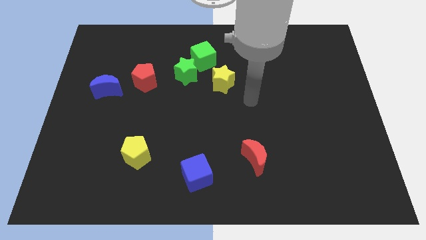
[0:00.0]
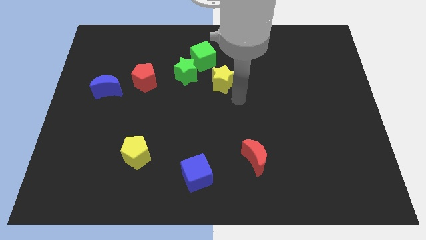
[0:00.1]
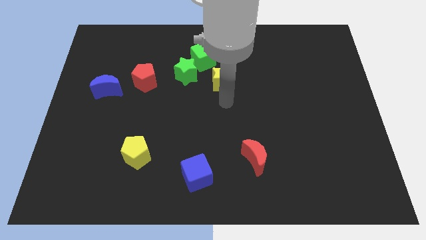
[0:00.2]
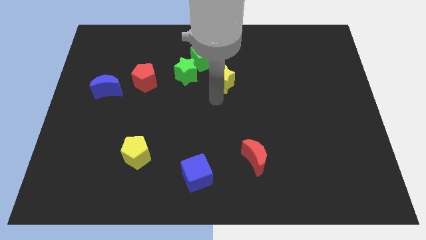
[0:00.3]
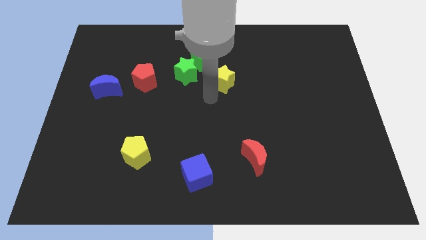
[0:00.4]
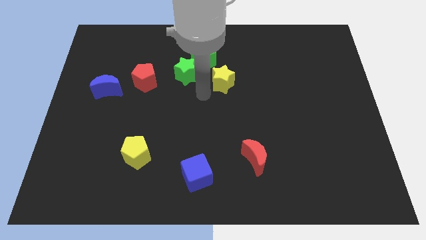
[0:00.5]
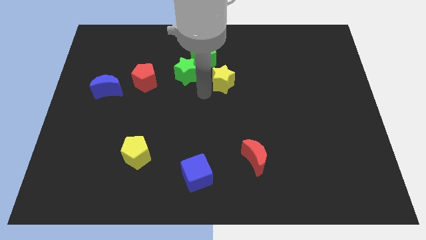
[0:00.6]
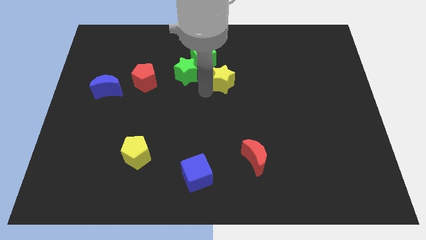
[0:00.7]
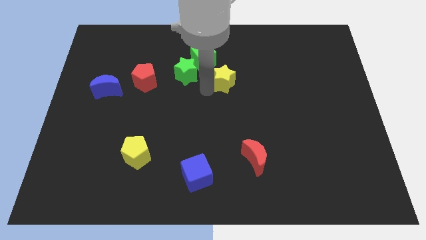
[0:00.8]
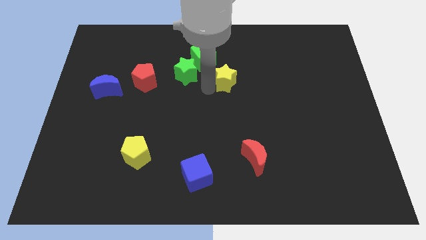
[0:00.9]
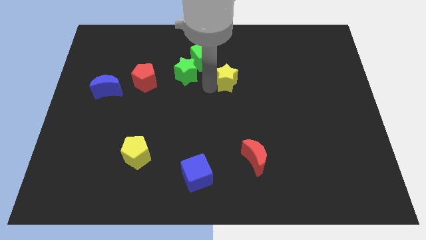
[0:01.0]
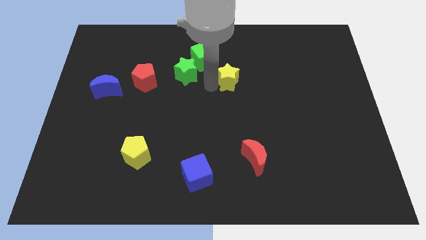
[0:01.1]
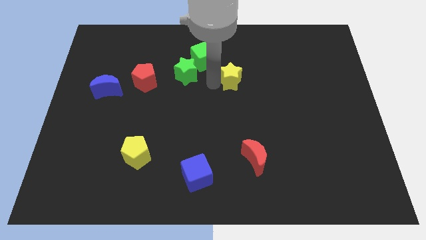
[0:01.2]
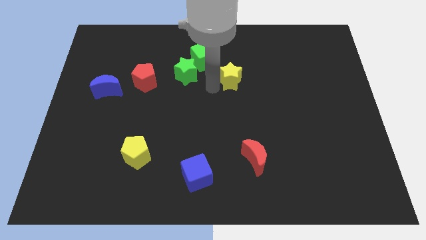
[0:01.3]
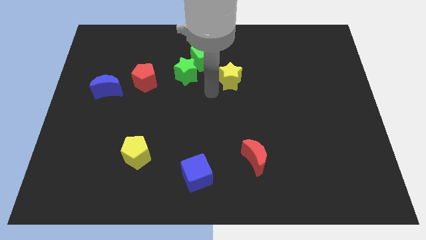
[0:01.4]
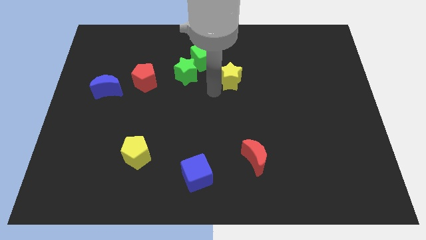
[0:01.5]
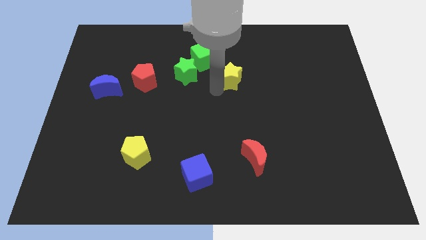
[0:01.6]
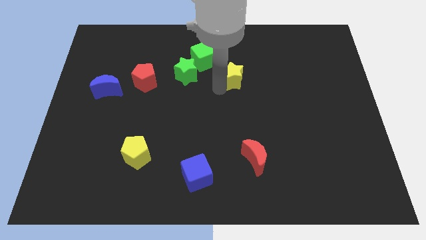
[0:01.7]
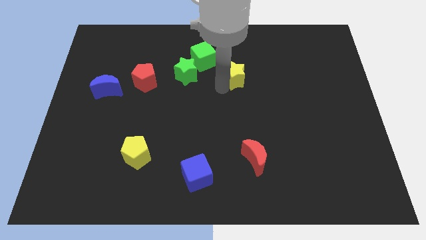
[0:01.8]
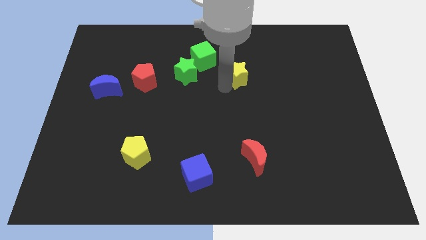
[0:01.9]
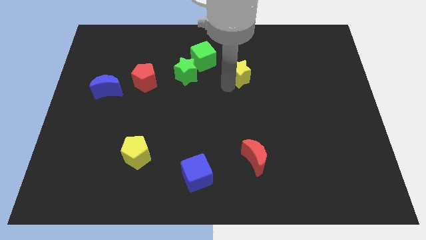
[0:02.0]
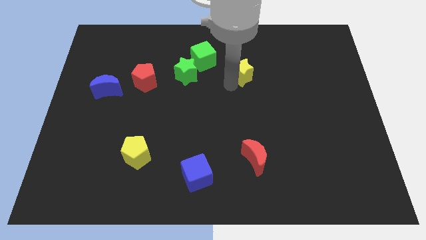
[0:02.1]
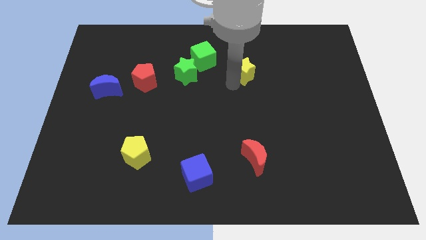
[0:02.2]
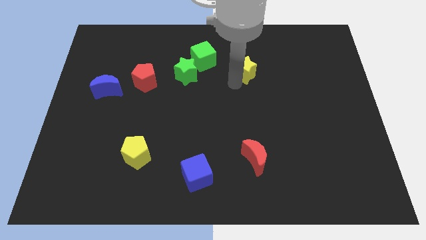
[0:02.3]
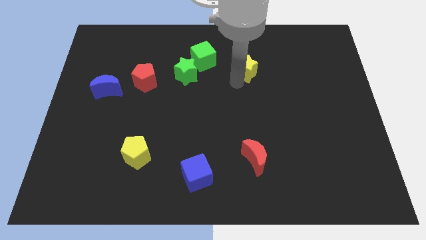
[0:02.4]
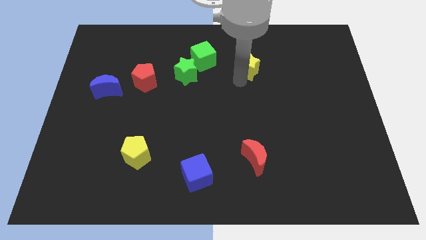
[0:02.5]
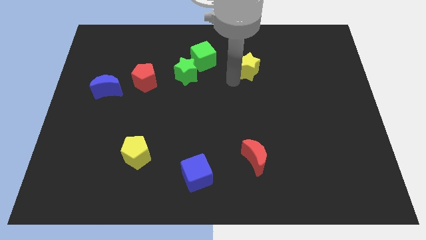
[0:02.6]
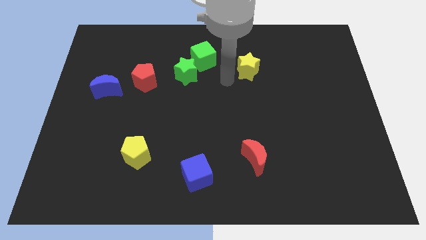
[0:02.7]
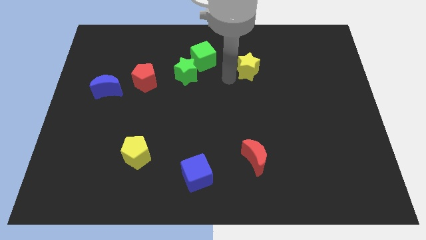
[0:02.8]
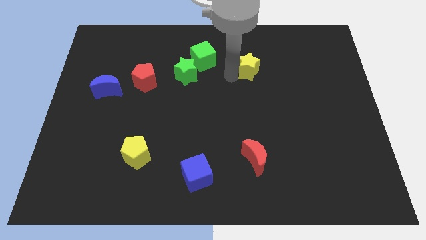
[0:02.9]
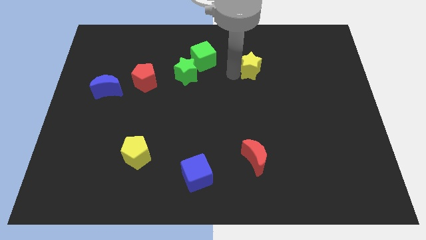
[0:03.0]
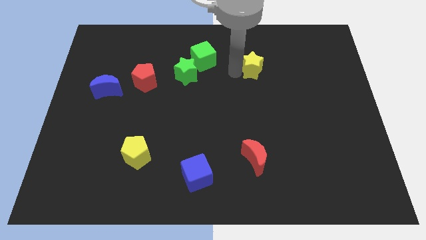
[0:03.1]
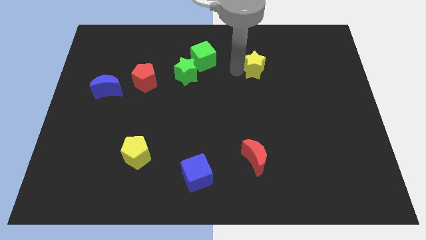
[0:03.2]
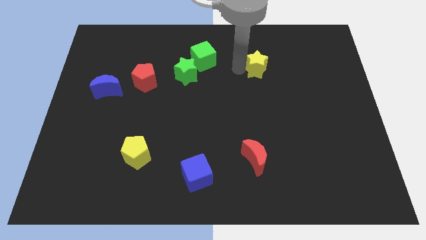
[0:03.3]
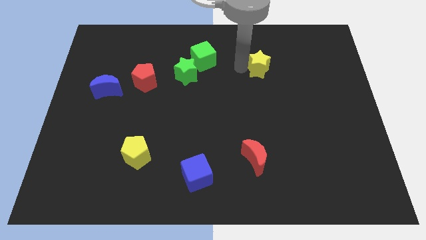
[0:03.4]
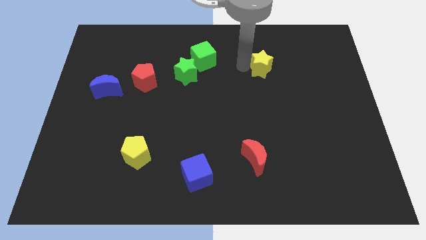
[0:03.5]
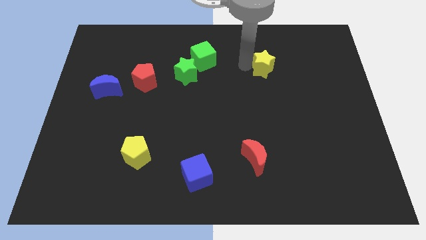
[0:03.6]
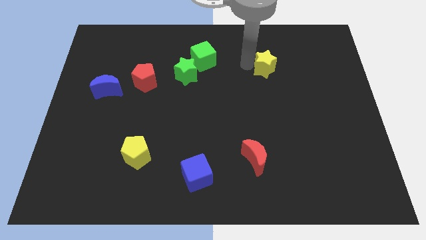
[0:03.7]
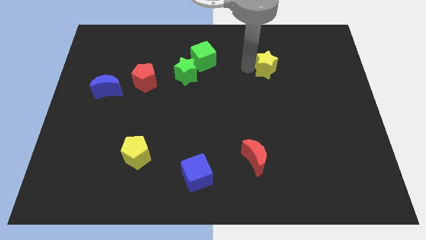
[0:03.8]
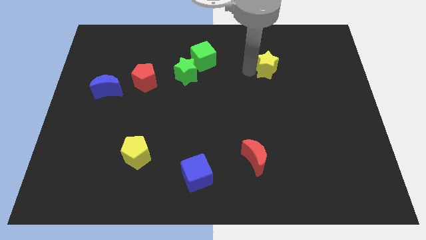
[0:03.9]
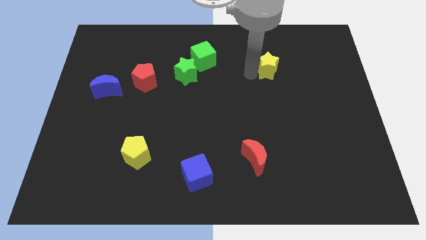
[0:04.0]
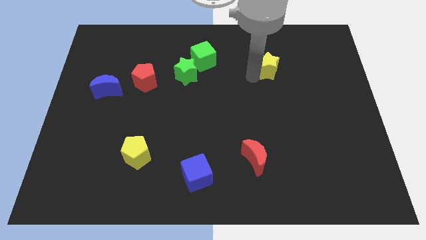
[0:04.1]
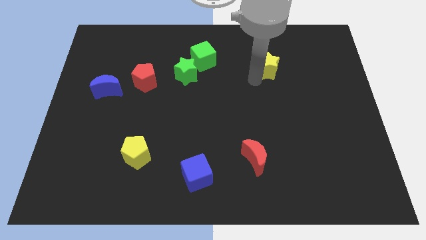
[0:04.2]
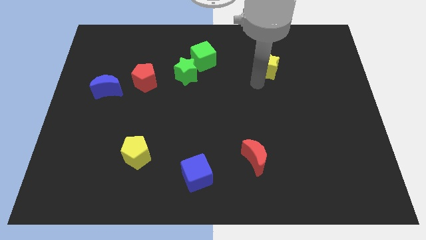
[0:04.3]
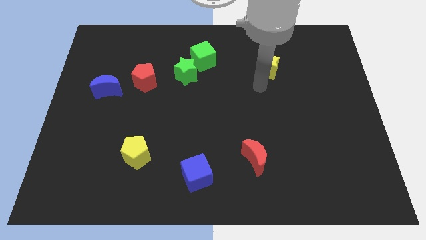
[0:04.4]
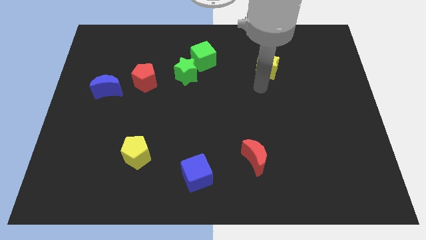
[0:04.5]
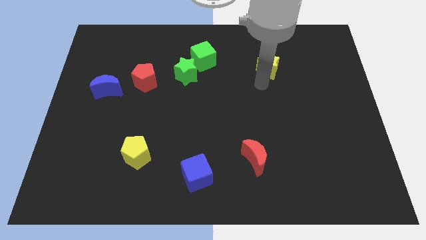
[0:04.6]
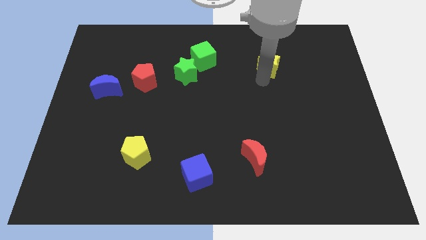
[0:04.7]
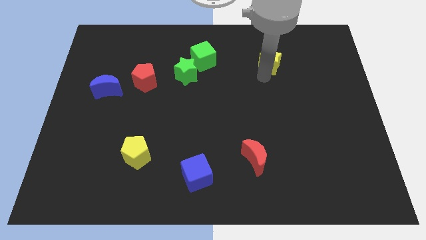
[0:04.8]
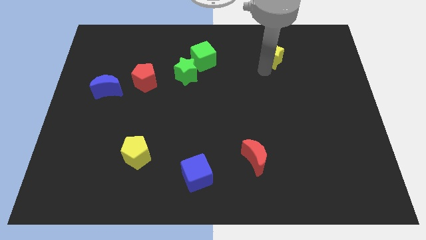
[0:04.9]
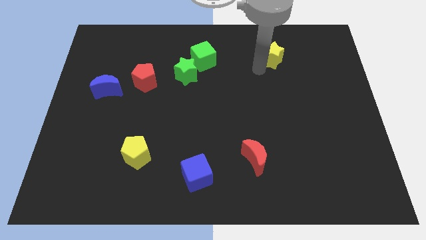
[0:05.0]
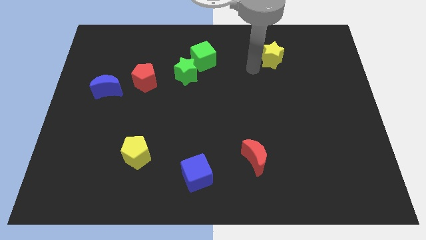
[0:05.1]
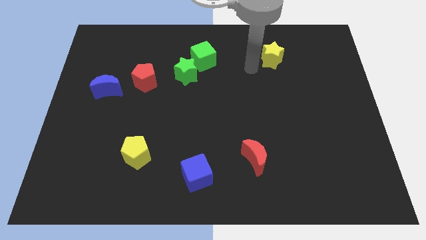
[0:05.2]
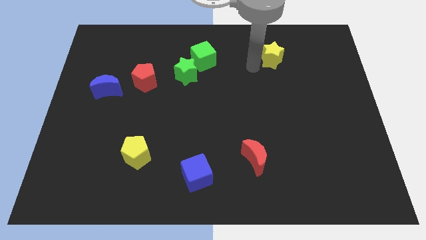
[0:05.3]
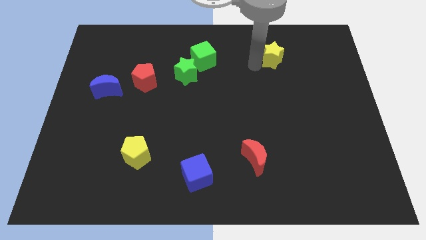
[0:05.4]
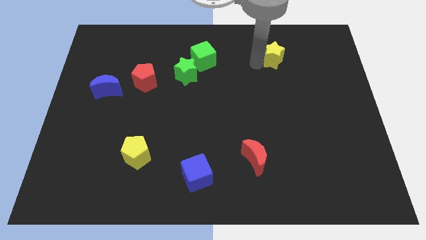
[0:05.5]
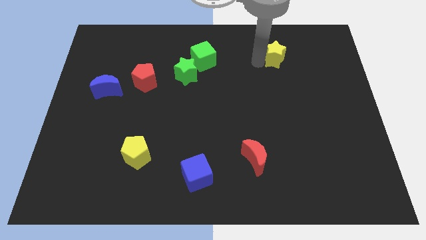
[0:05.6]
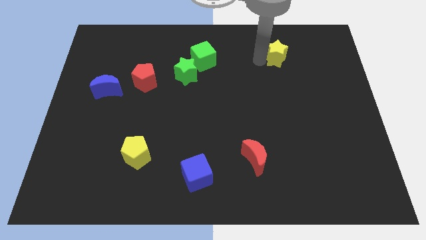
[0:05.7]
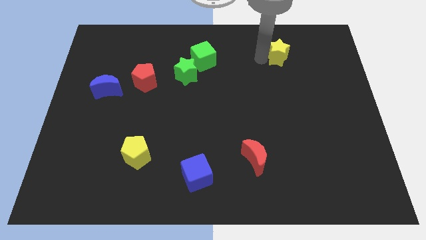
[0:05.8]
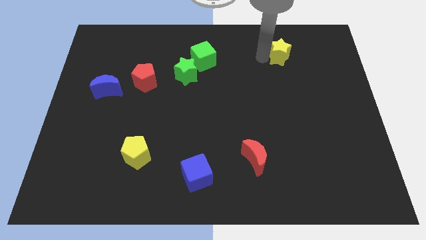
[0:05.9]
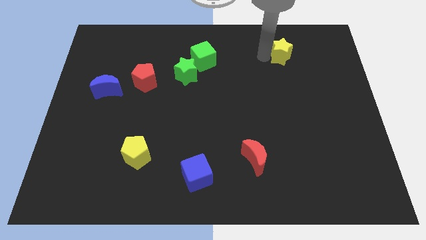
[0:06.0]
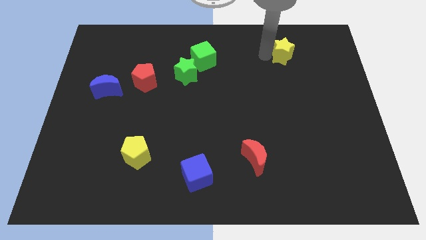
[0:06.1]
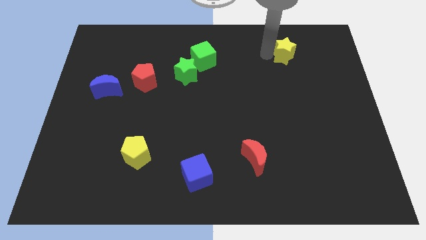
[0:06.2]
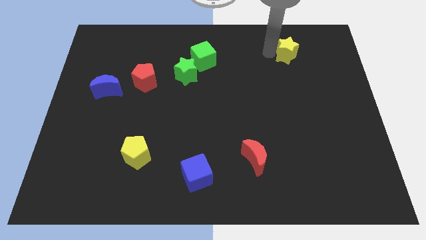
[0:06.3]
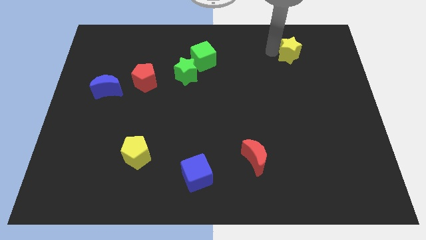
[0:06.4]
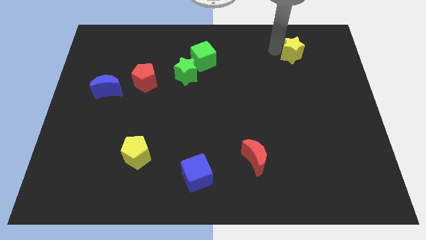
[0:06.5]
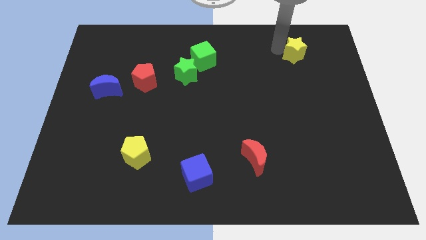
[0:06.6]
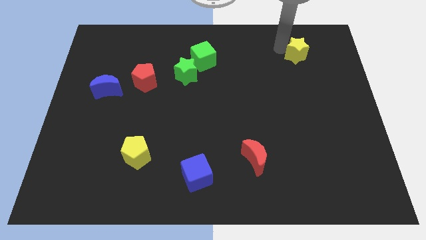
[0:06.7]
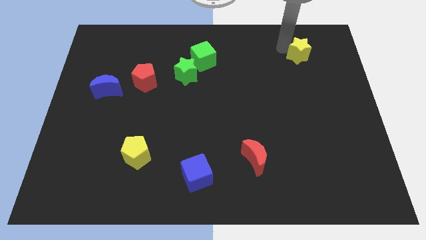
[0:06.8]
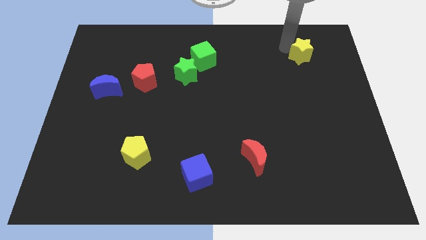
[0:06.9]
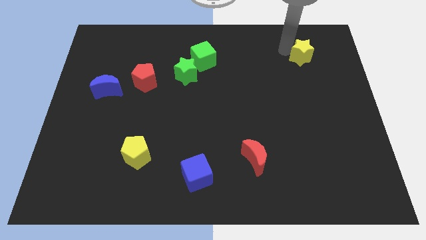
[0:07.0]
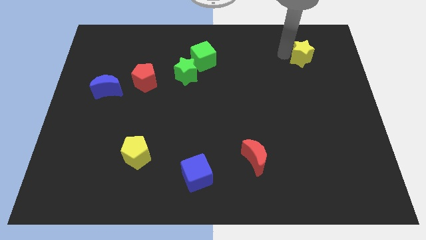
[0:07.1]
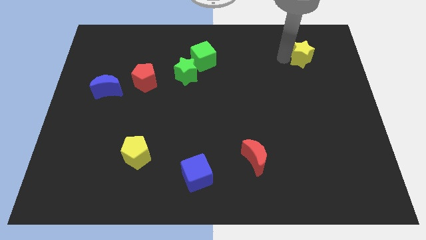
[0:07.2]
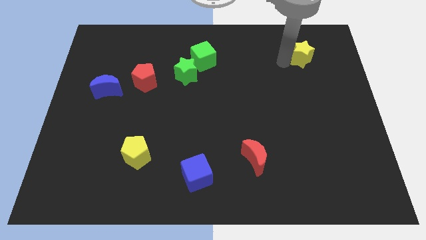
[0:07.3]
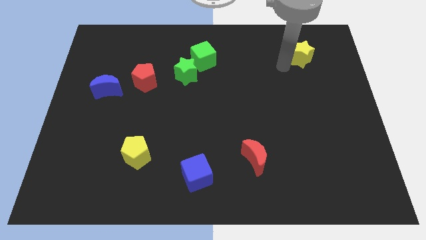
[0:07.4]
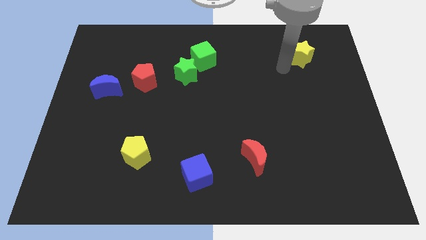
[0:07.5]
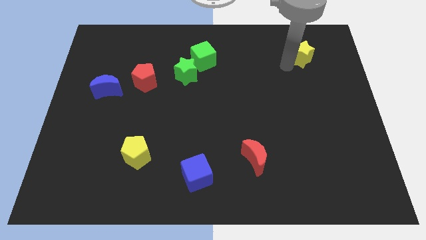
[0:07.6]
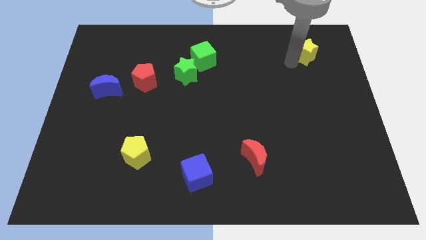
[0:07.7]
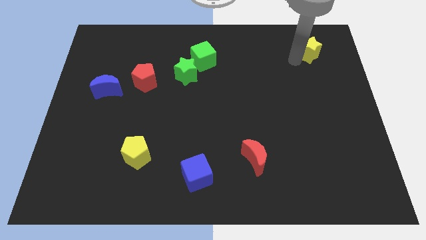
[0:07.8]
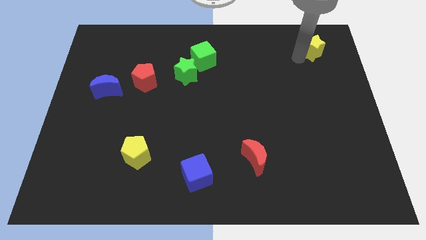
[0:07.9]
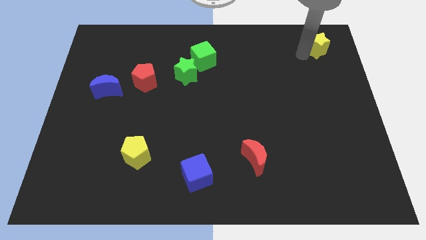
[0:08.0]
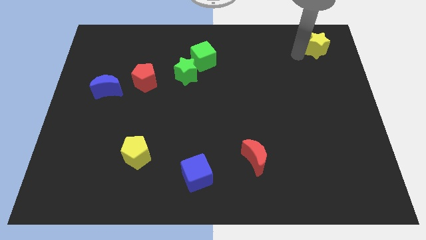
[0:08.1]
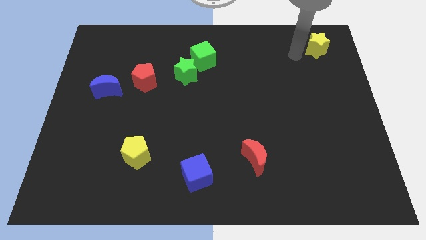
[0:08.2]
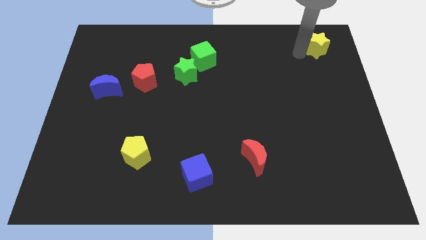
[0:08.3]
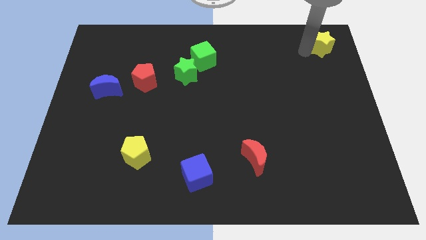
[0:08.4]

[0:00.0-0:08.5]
slide the yellow star to the top right corner
